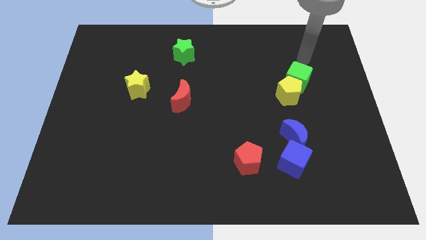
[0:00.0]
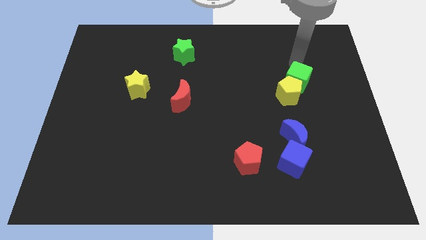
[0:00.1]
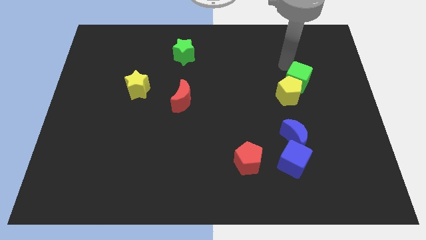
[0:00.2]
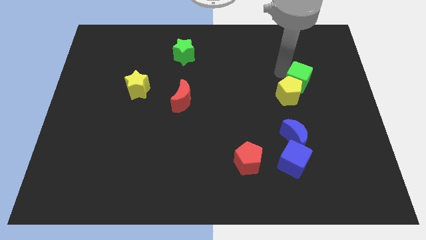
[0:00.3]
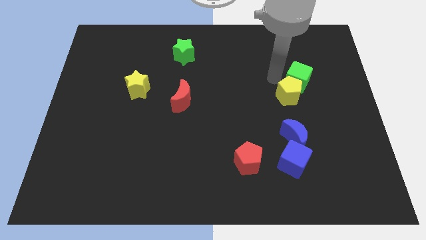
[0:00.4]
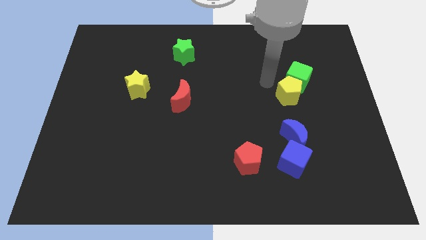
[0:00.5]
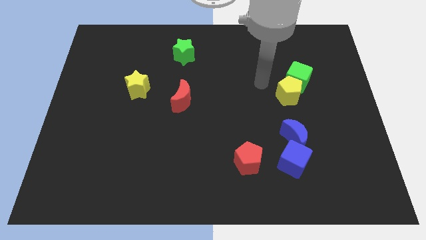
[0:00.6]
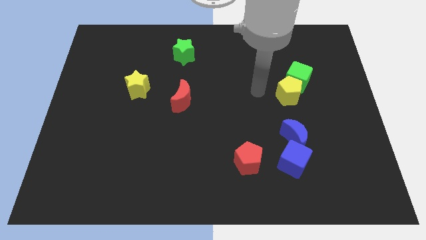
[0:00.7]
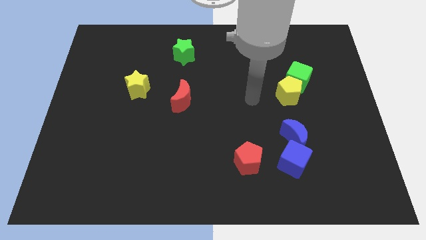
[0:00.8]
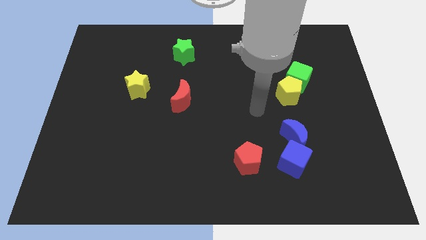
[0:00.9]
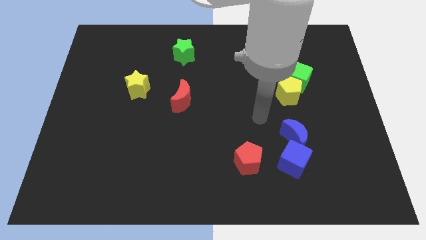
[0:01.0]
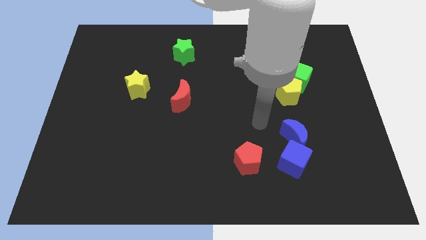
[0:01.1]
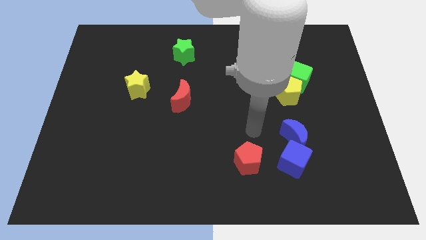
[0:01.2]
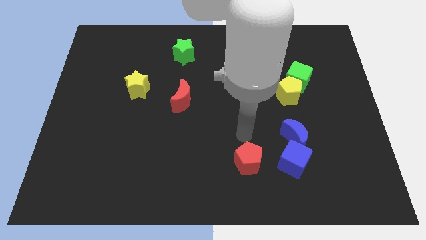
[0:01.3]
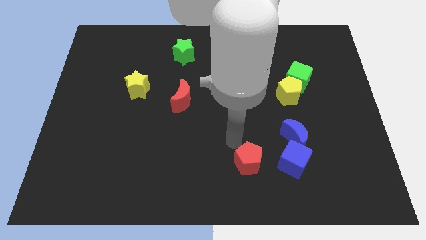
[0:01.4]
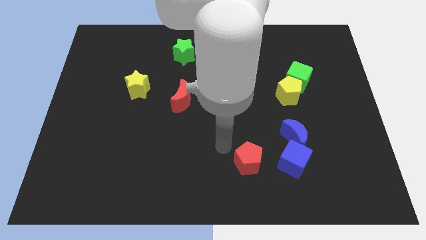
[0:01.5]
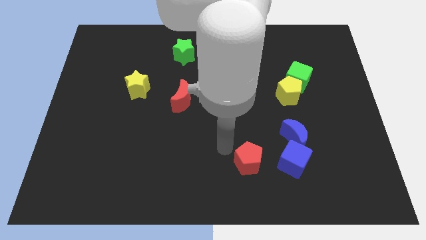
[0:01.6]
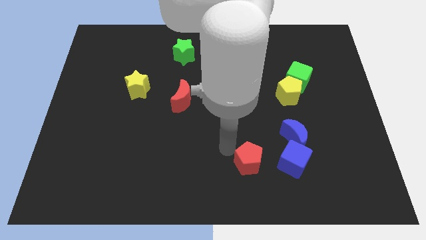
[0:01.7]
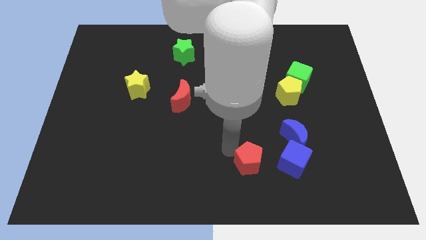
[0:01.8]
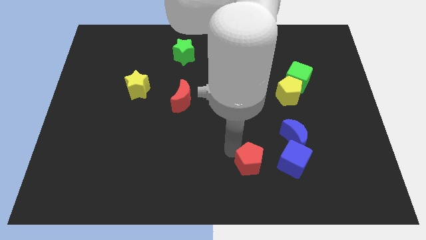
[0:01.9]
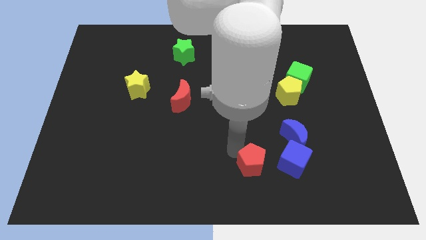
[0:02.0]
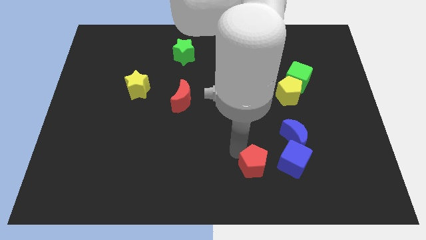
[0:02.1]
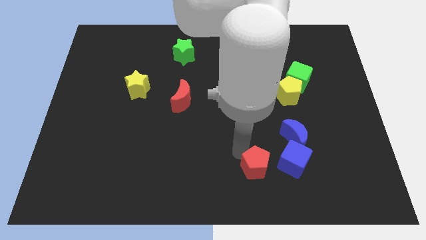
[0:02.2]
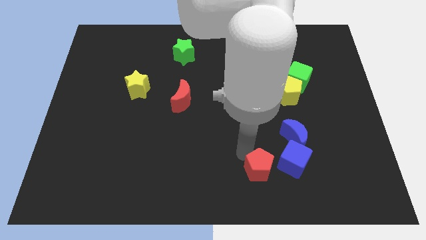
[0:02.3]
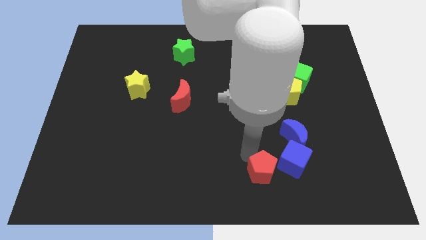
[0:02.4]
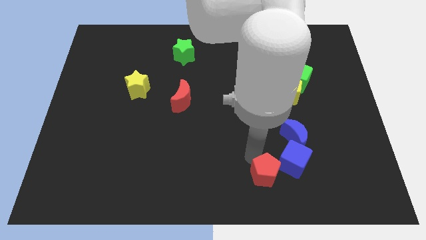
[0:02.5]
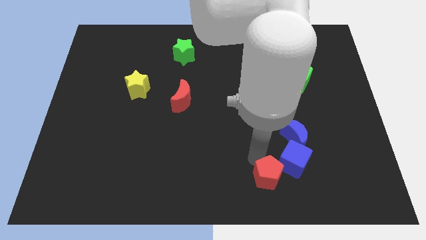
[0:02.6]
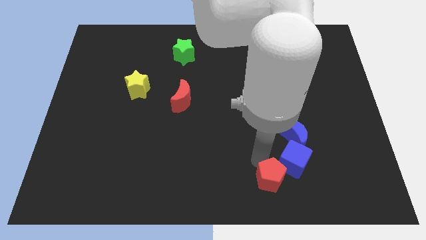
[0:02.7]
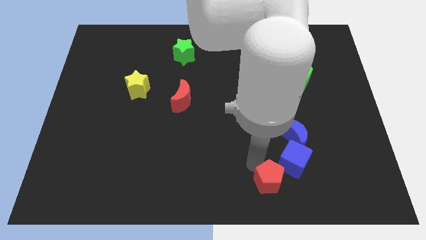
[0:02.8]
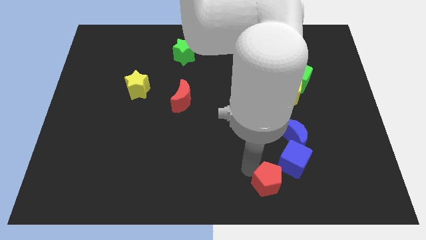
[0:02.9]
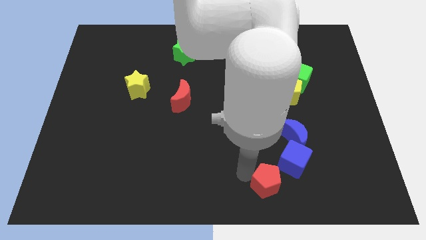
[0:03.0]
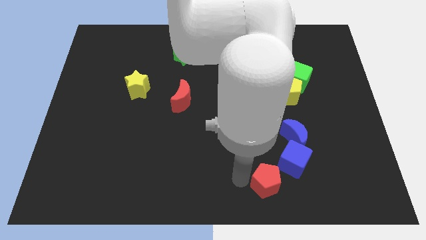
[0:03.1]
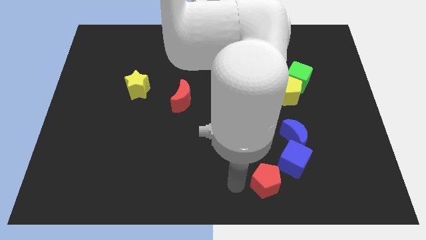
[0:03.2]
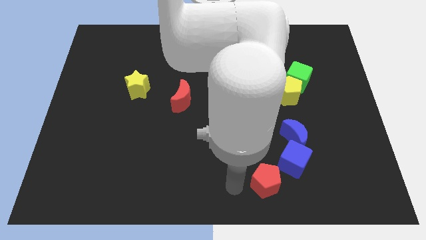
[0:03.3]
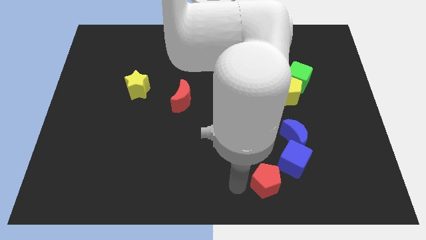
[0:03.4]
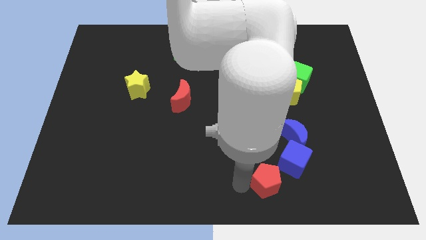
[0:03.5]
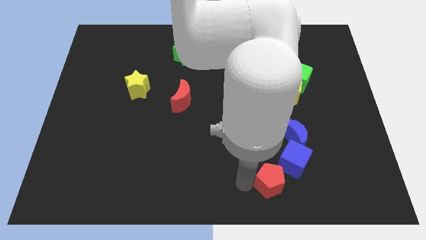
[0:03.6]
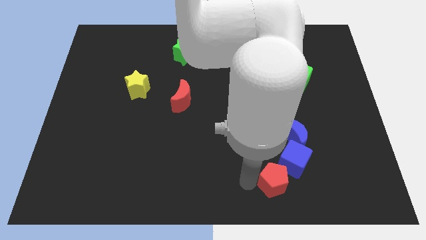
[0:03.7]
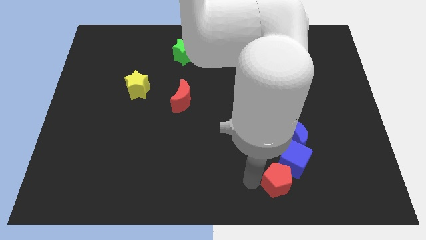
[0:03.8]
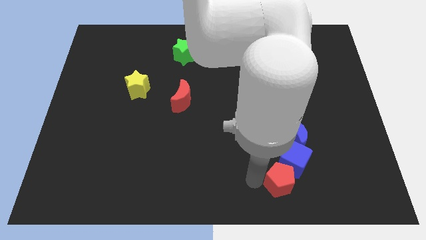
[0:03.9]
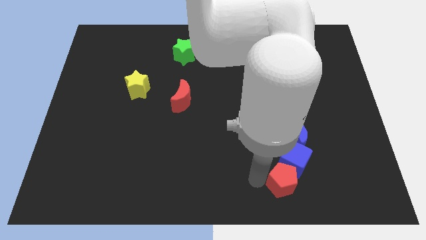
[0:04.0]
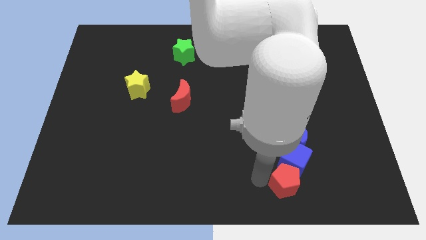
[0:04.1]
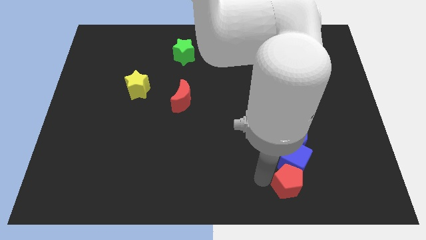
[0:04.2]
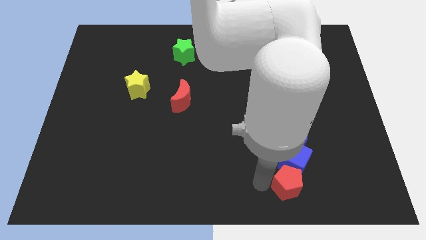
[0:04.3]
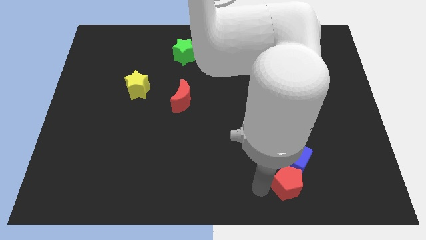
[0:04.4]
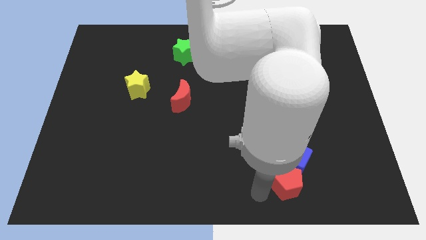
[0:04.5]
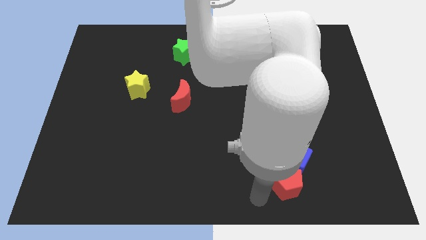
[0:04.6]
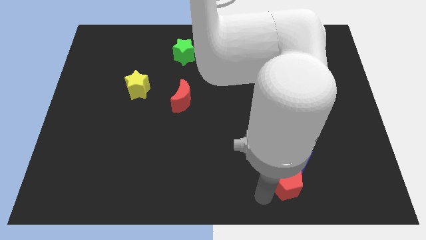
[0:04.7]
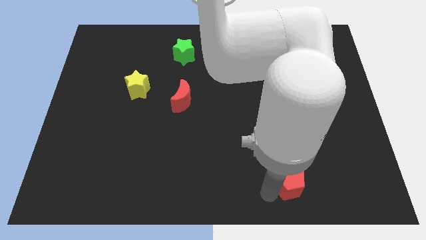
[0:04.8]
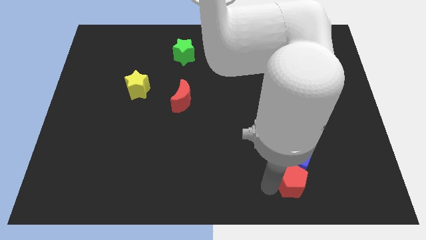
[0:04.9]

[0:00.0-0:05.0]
put the red pentagon to the bottom right side of the blue cube
